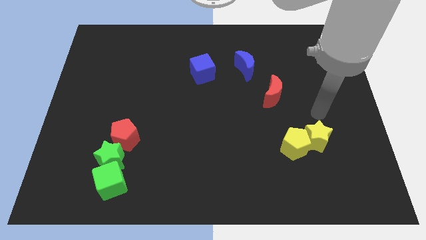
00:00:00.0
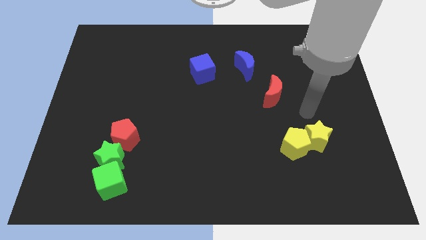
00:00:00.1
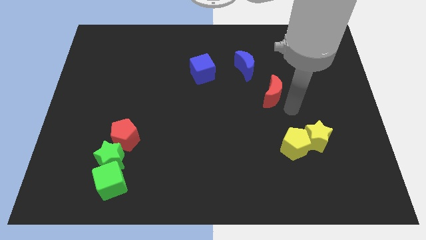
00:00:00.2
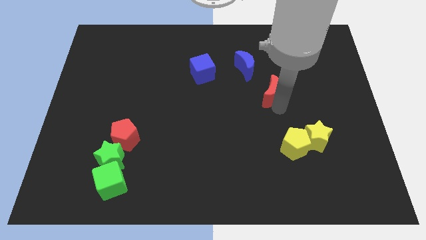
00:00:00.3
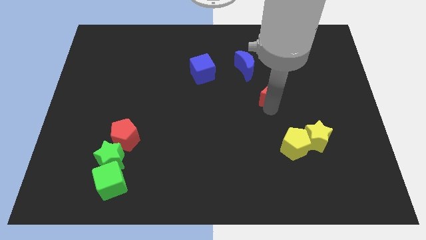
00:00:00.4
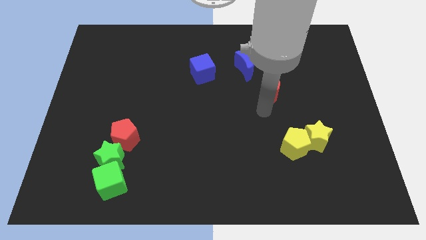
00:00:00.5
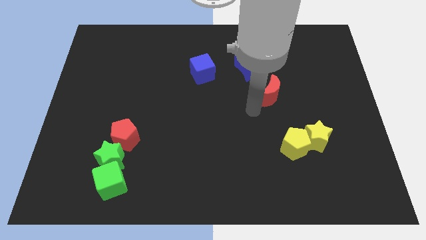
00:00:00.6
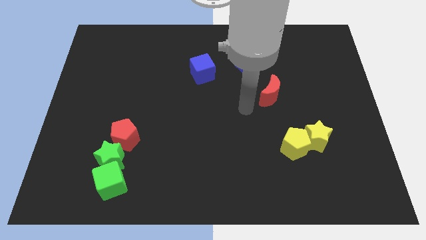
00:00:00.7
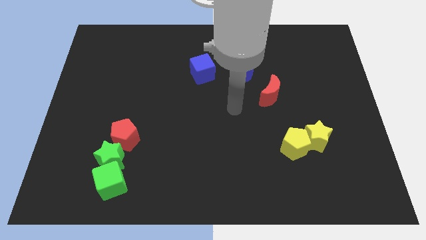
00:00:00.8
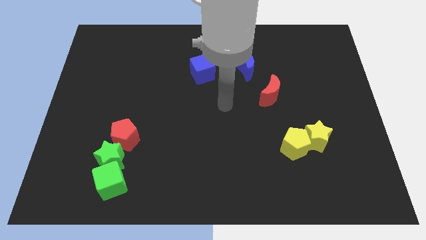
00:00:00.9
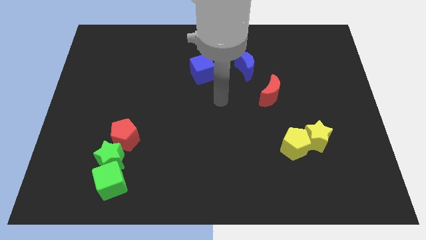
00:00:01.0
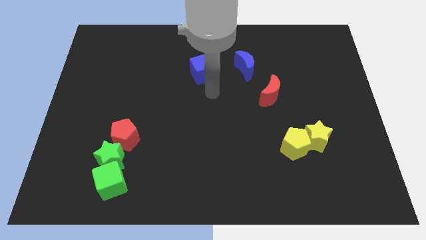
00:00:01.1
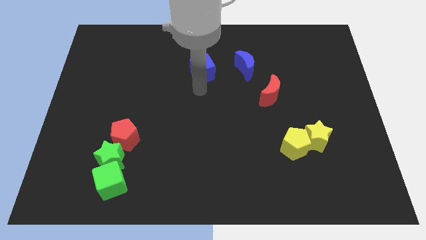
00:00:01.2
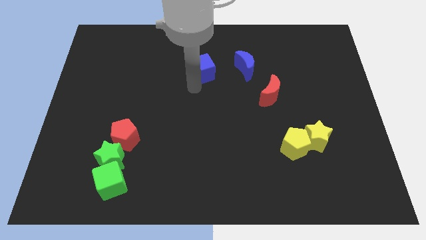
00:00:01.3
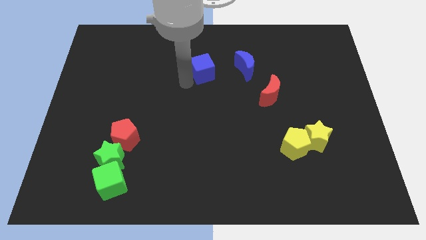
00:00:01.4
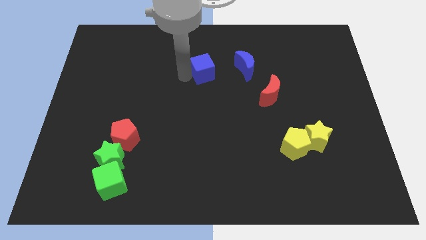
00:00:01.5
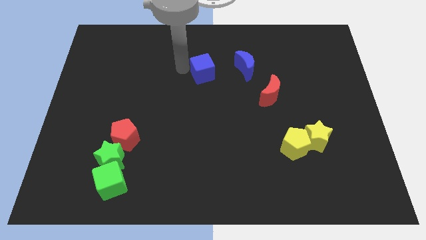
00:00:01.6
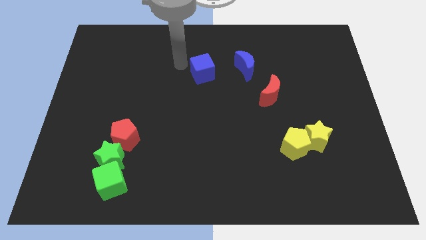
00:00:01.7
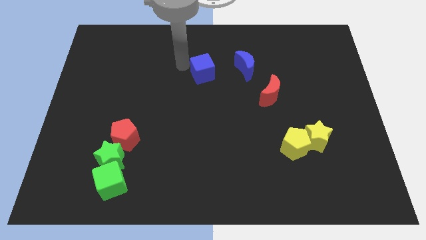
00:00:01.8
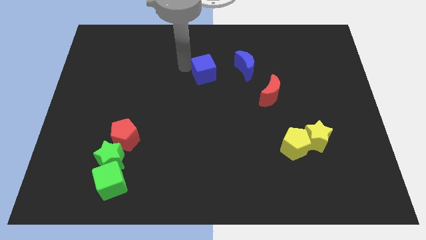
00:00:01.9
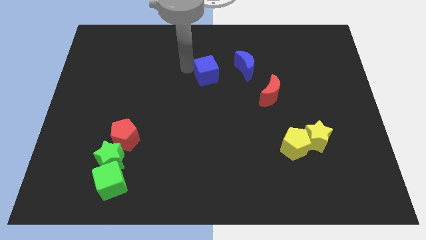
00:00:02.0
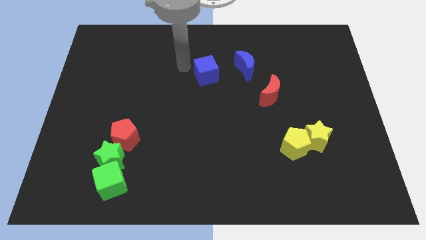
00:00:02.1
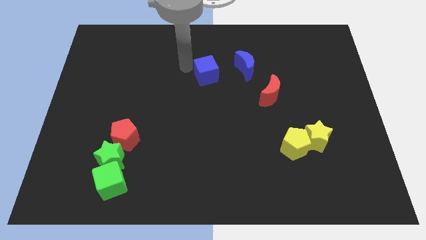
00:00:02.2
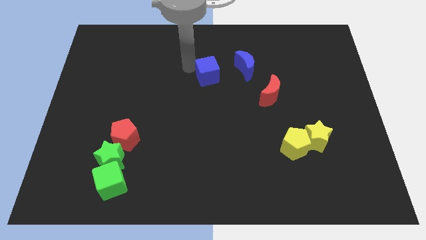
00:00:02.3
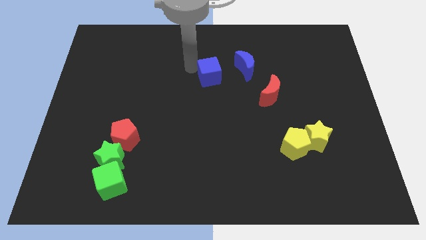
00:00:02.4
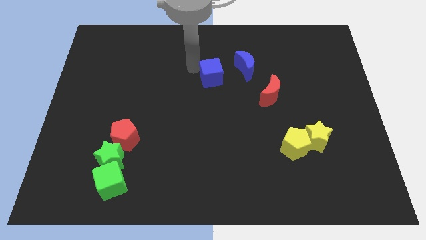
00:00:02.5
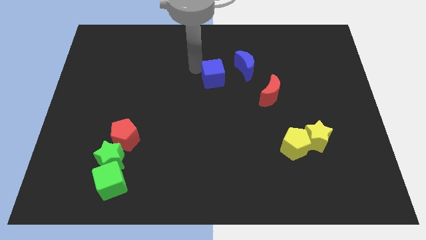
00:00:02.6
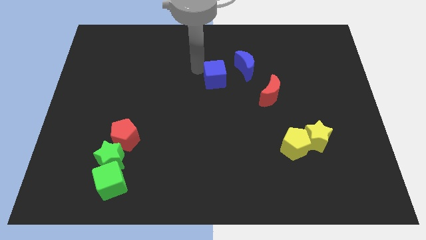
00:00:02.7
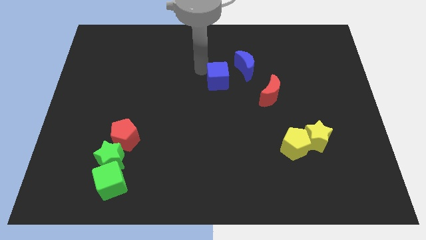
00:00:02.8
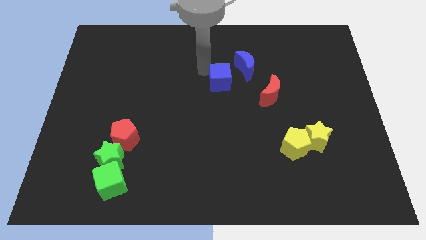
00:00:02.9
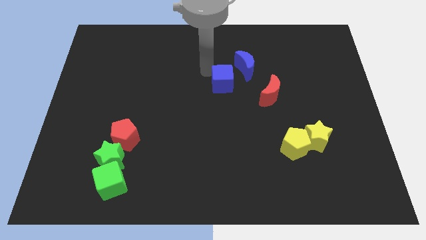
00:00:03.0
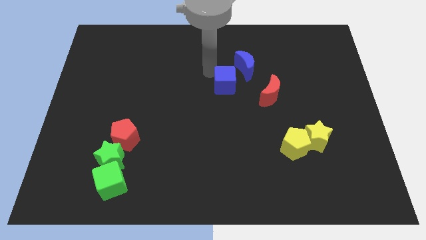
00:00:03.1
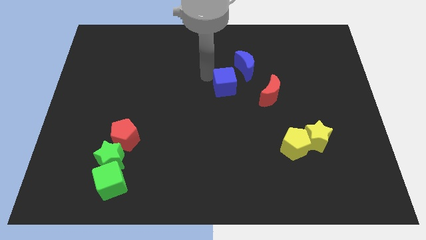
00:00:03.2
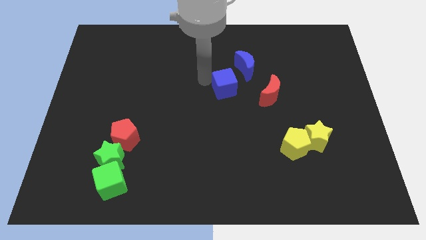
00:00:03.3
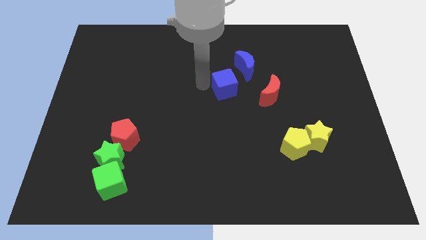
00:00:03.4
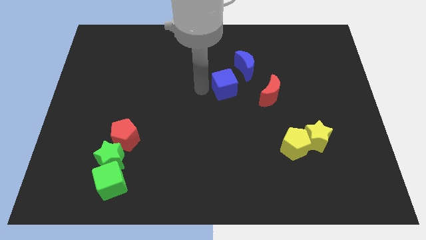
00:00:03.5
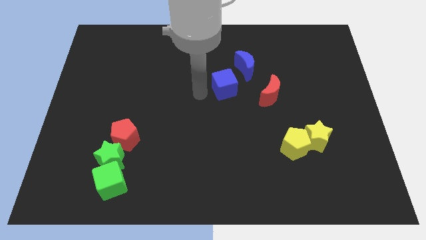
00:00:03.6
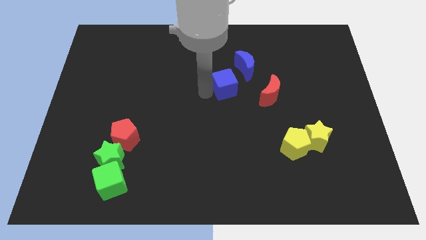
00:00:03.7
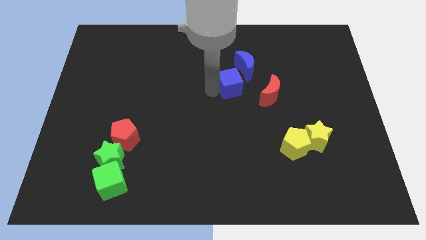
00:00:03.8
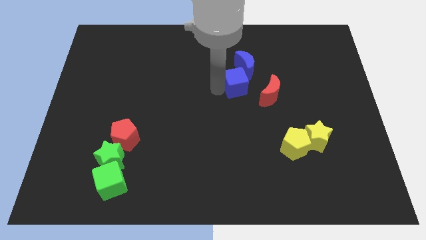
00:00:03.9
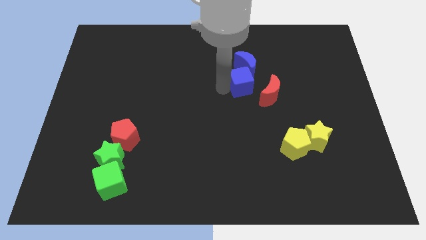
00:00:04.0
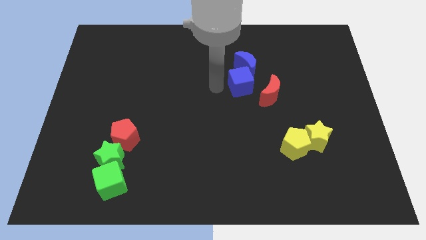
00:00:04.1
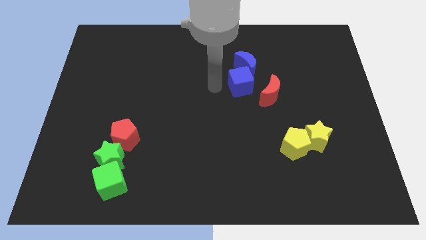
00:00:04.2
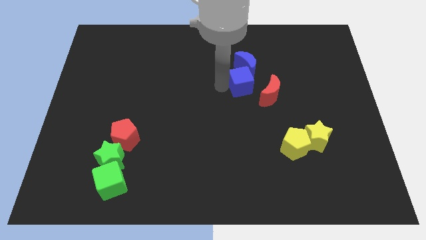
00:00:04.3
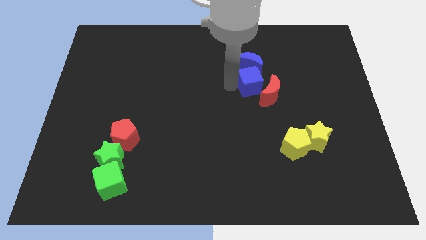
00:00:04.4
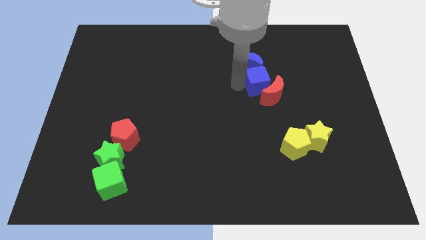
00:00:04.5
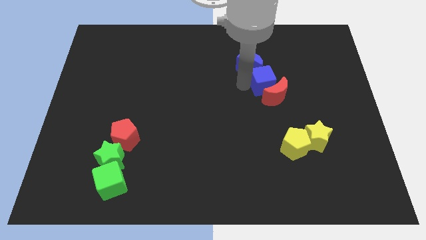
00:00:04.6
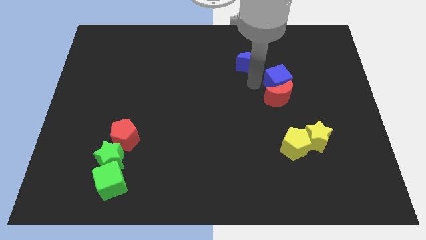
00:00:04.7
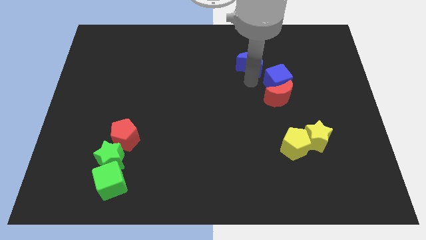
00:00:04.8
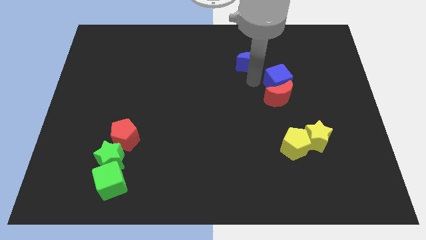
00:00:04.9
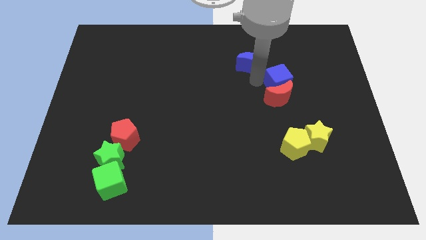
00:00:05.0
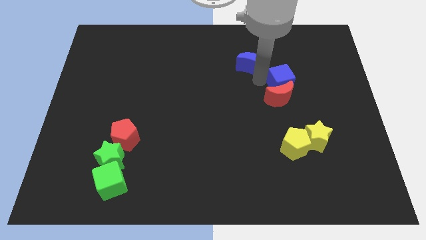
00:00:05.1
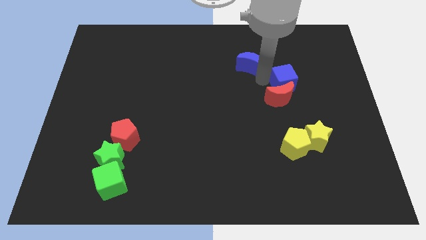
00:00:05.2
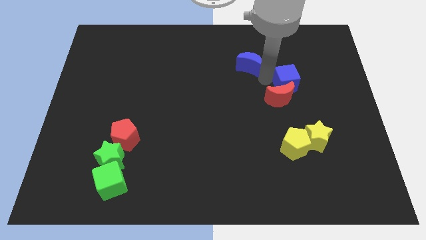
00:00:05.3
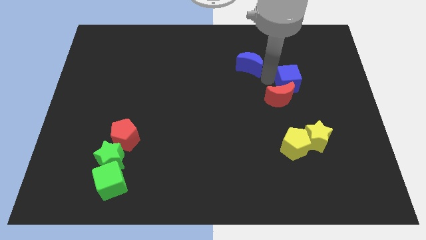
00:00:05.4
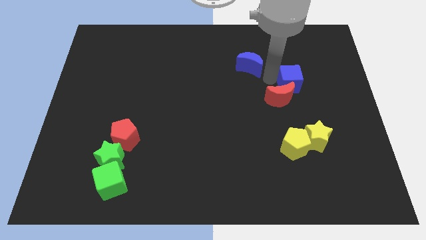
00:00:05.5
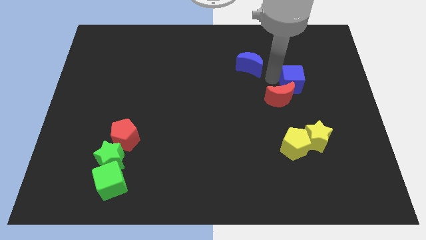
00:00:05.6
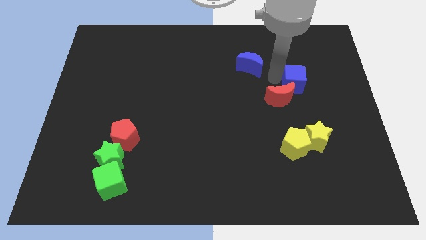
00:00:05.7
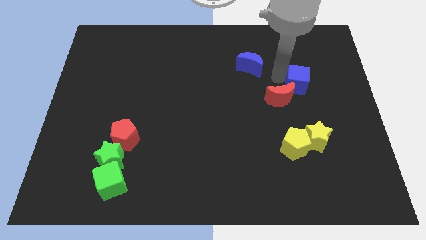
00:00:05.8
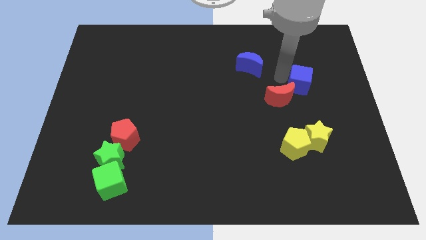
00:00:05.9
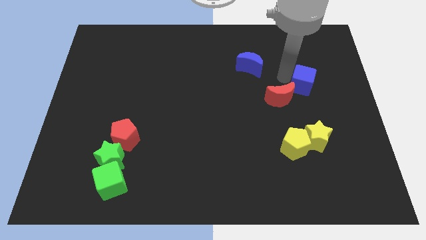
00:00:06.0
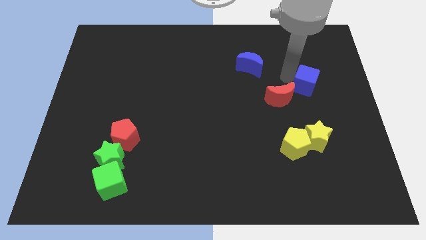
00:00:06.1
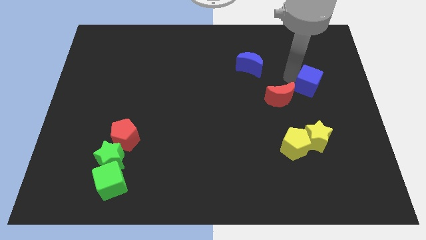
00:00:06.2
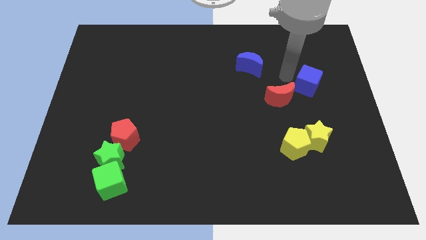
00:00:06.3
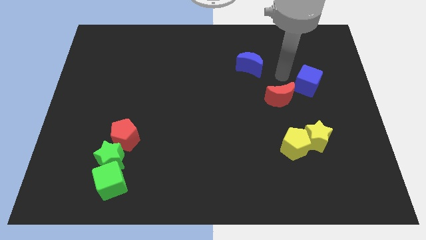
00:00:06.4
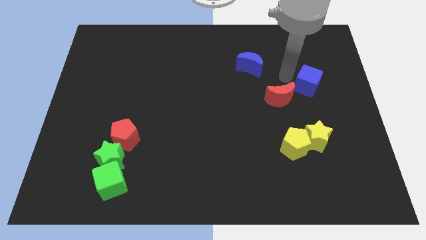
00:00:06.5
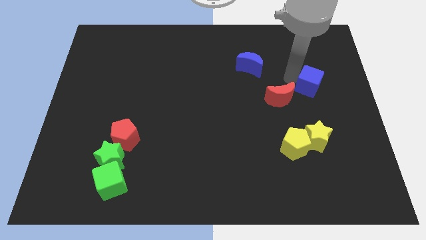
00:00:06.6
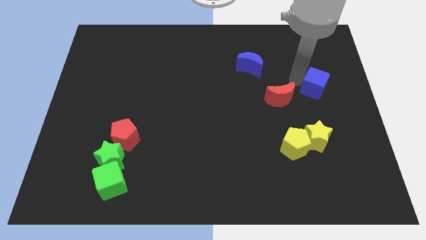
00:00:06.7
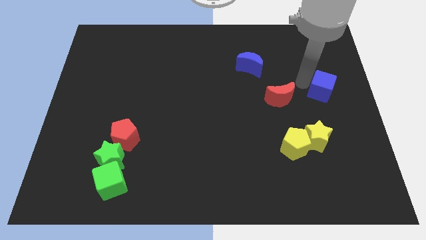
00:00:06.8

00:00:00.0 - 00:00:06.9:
slide the blue cube to the right side

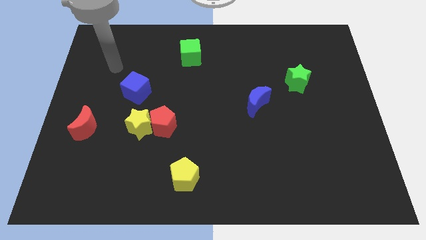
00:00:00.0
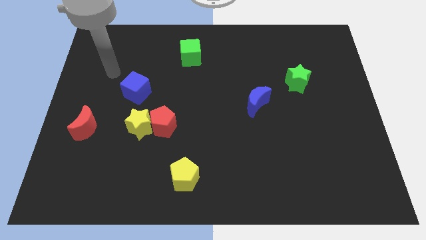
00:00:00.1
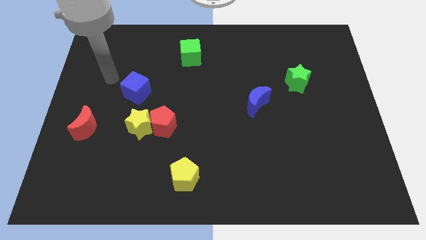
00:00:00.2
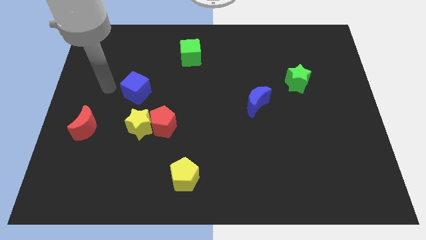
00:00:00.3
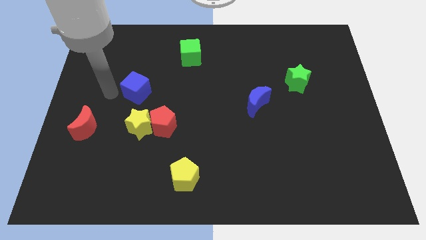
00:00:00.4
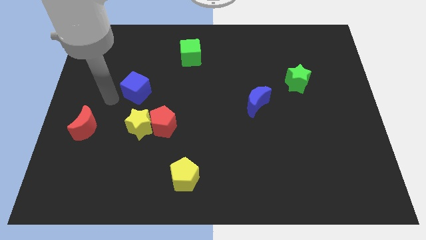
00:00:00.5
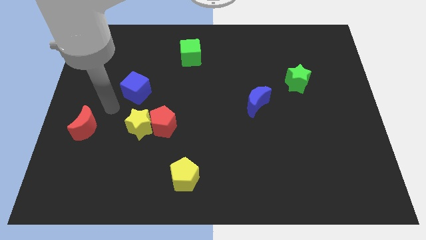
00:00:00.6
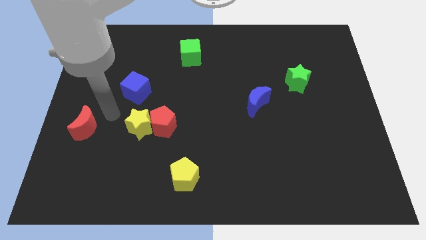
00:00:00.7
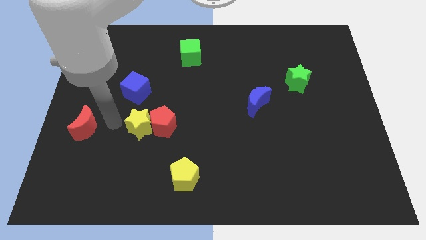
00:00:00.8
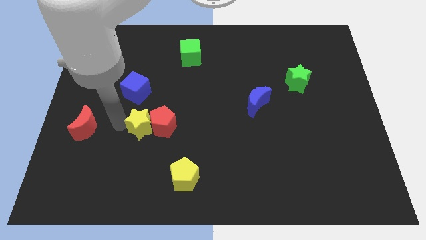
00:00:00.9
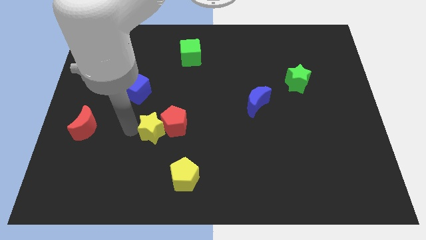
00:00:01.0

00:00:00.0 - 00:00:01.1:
move the red pentagon to the middle
